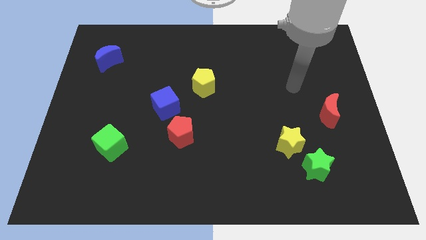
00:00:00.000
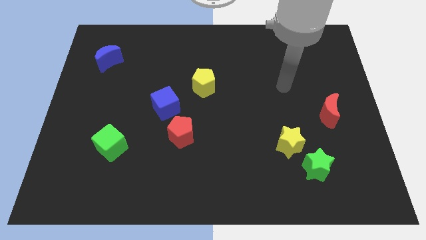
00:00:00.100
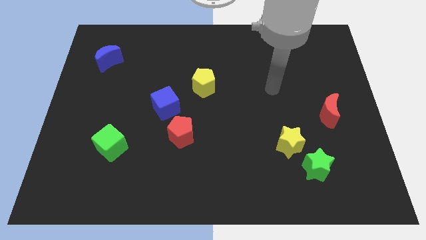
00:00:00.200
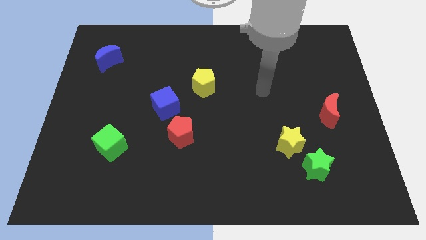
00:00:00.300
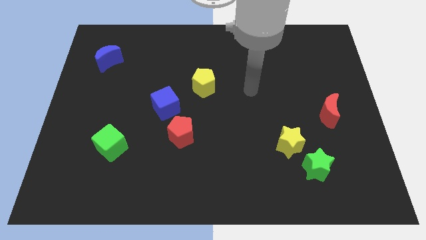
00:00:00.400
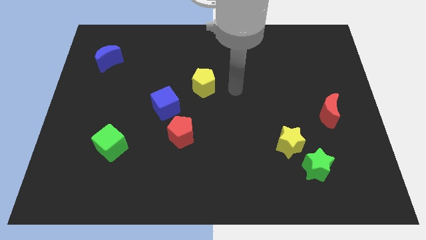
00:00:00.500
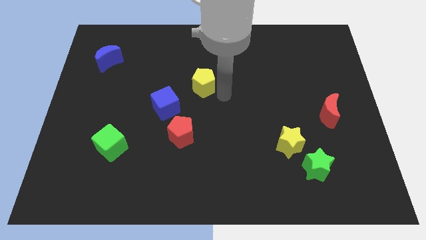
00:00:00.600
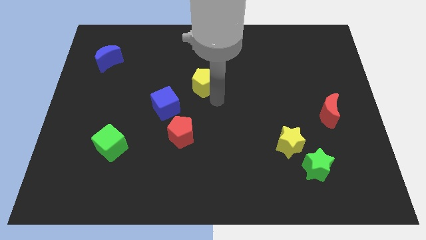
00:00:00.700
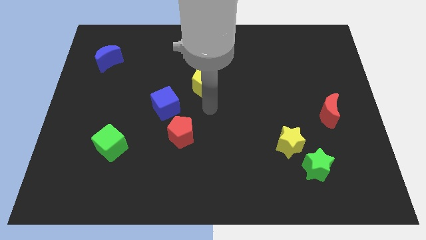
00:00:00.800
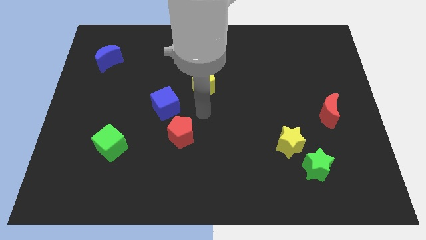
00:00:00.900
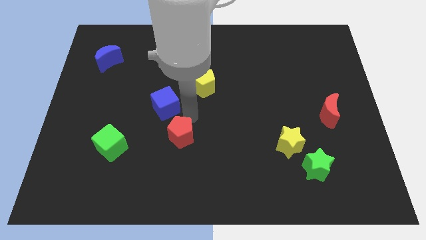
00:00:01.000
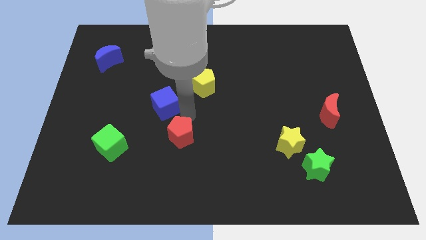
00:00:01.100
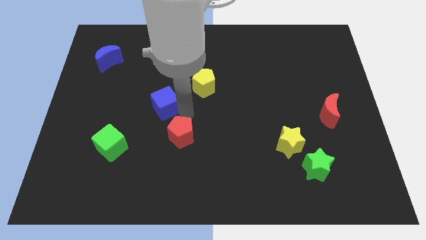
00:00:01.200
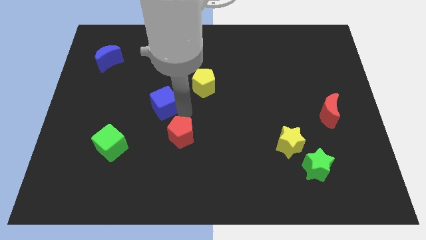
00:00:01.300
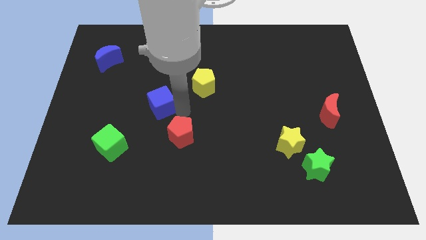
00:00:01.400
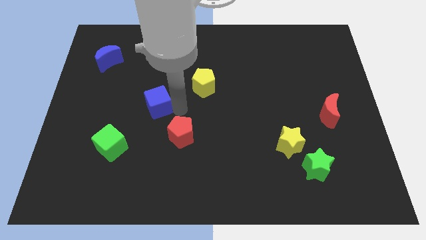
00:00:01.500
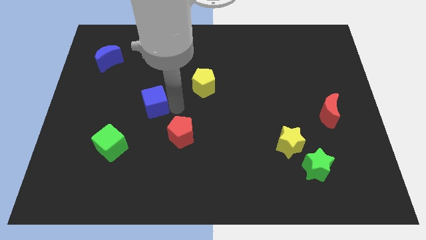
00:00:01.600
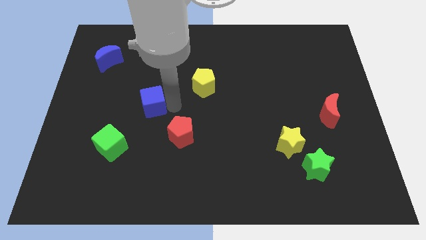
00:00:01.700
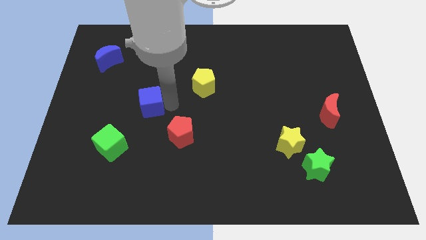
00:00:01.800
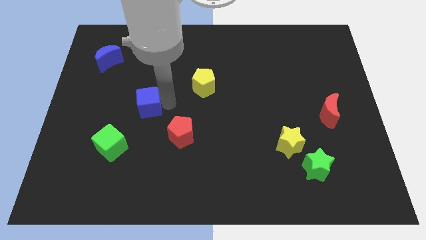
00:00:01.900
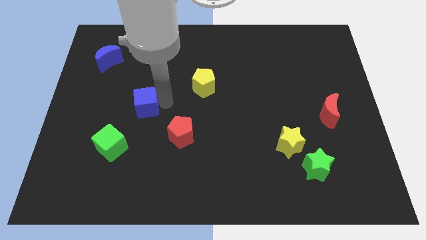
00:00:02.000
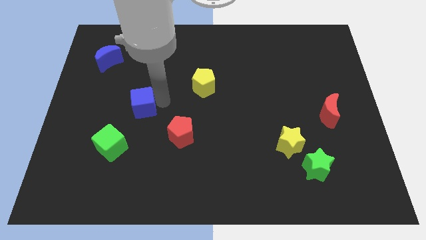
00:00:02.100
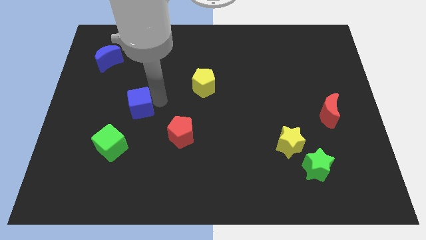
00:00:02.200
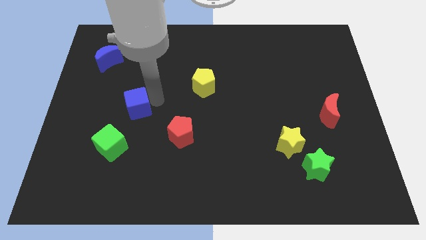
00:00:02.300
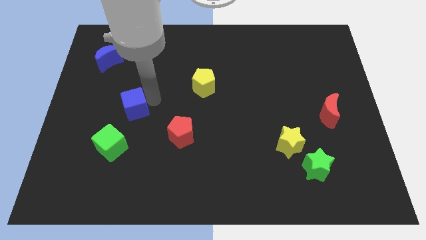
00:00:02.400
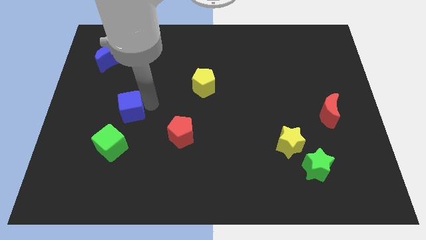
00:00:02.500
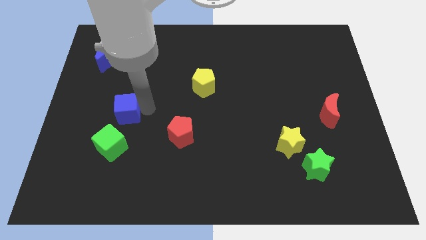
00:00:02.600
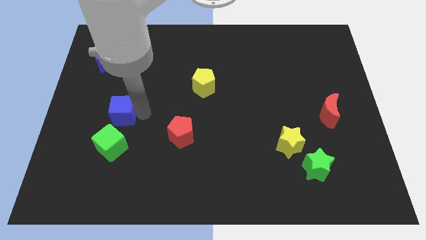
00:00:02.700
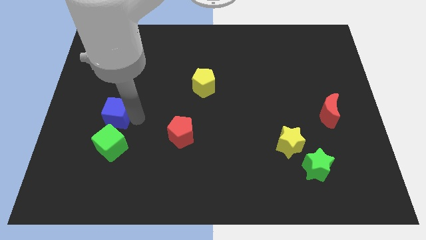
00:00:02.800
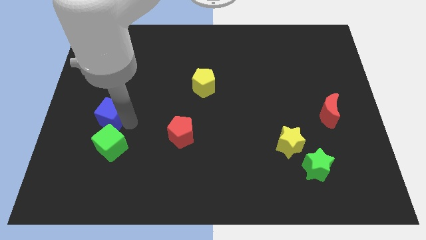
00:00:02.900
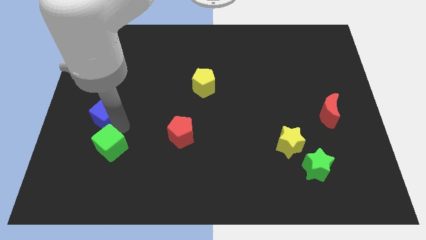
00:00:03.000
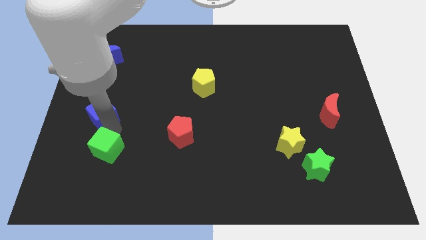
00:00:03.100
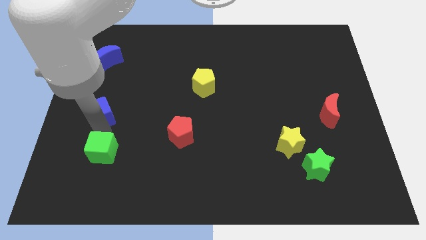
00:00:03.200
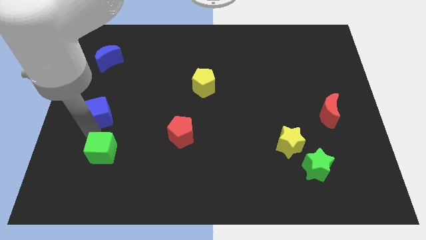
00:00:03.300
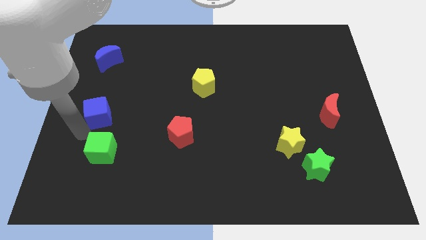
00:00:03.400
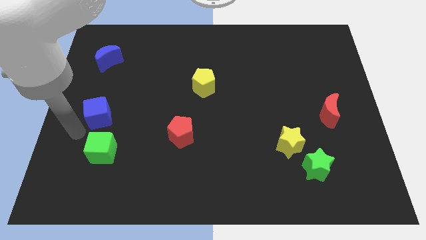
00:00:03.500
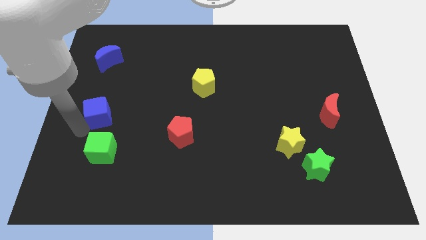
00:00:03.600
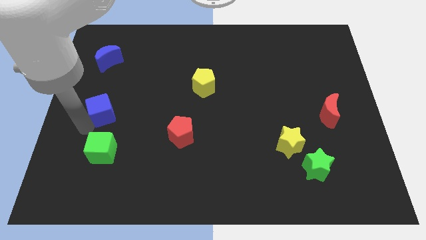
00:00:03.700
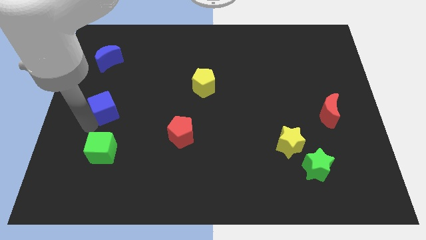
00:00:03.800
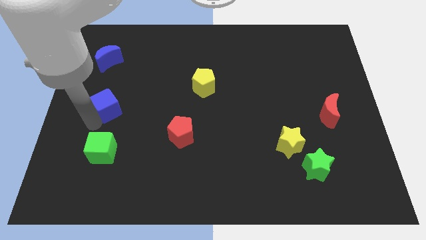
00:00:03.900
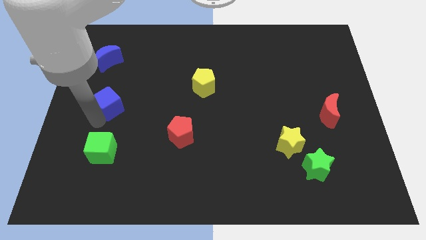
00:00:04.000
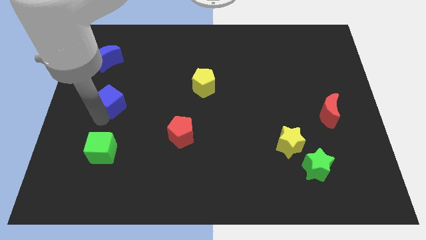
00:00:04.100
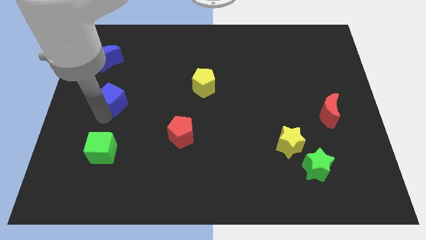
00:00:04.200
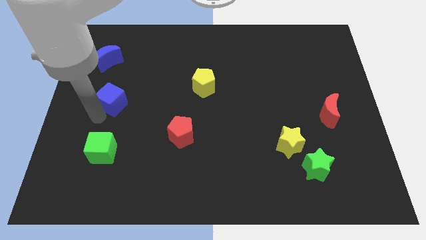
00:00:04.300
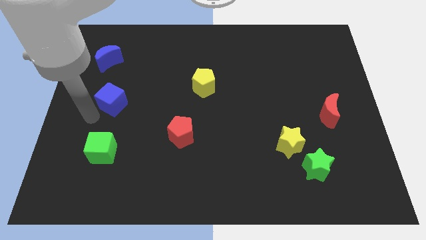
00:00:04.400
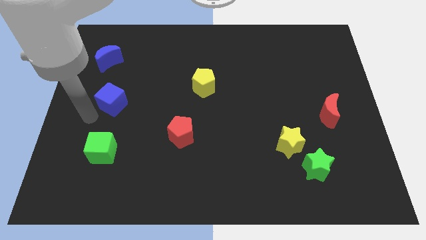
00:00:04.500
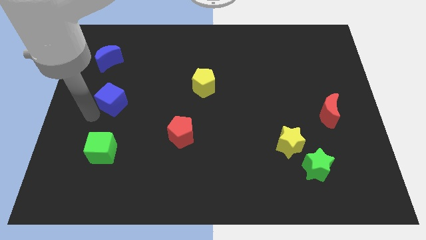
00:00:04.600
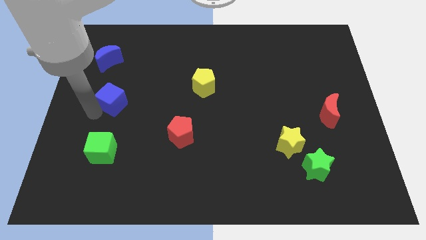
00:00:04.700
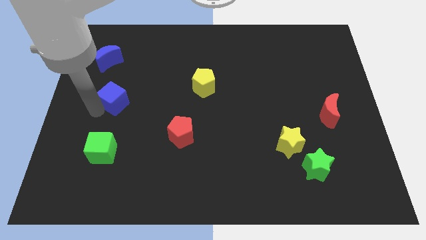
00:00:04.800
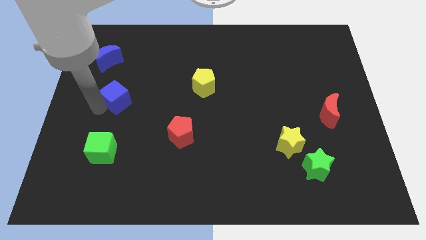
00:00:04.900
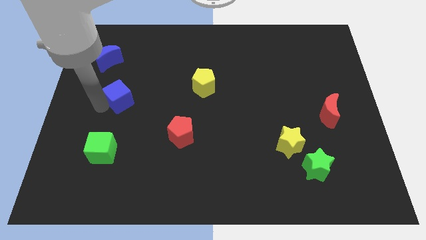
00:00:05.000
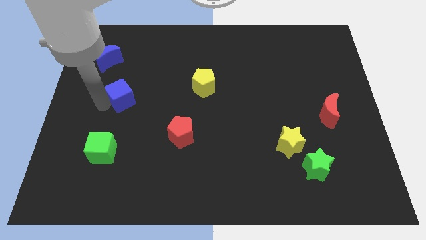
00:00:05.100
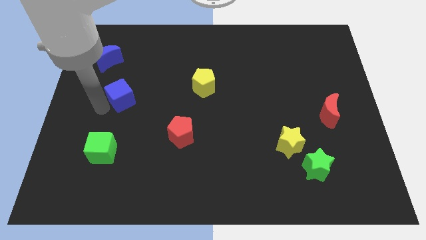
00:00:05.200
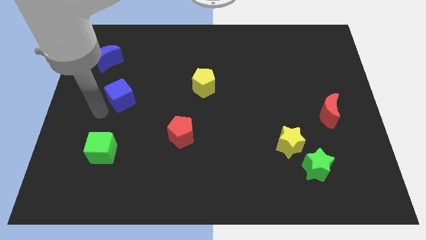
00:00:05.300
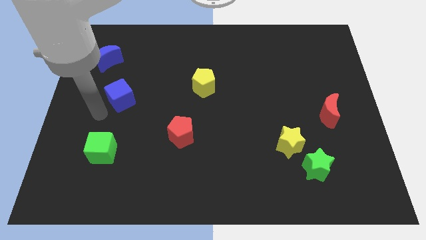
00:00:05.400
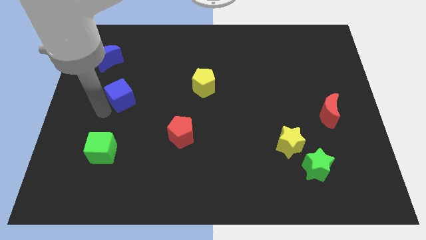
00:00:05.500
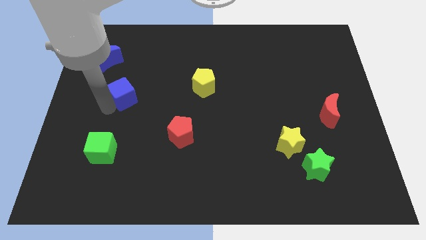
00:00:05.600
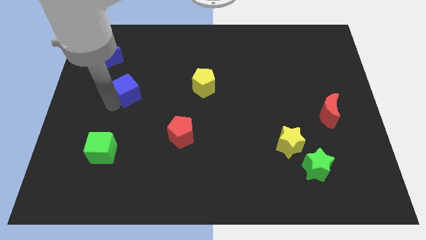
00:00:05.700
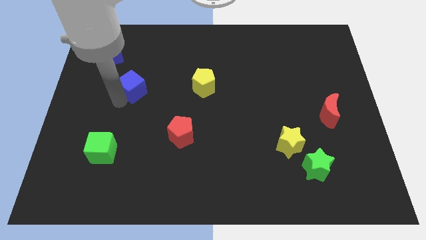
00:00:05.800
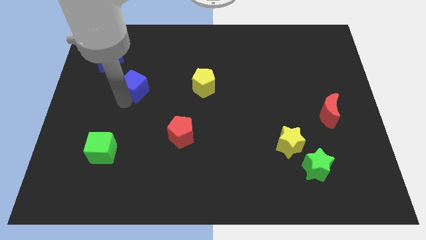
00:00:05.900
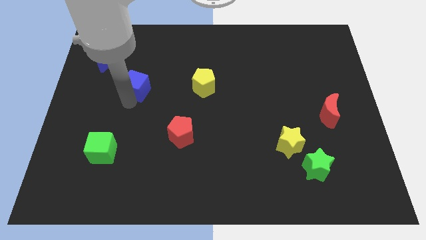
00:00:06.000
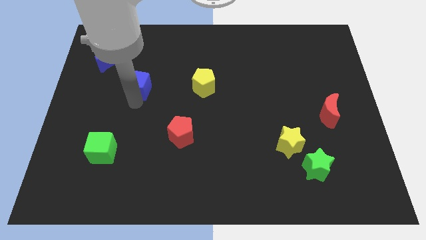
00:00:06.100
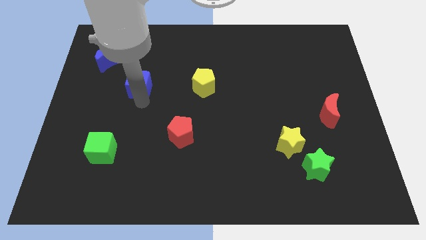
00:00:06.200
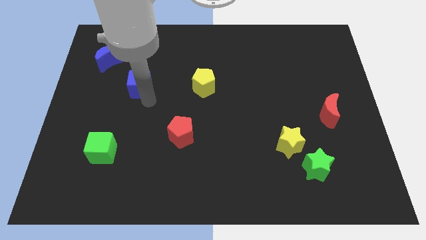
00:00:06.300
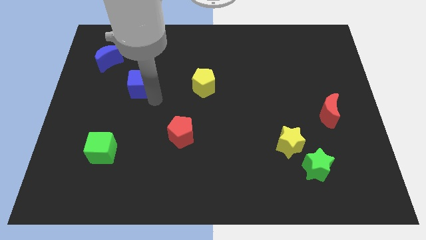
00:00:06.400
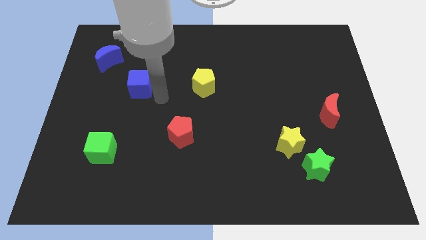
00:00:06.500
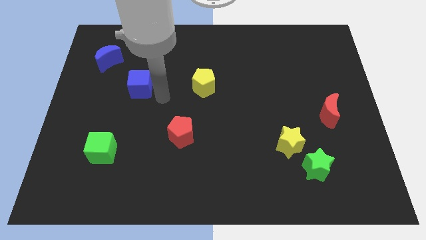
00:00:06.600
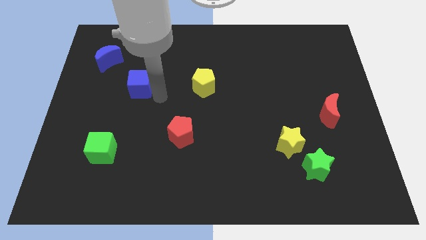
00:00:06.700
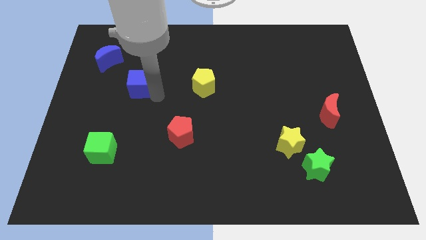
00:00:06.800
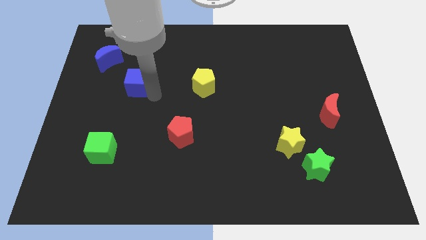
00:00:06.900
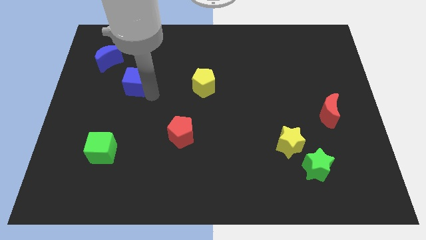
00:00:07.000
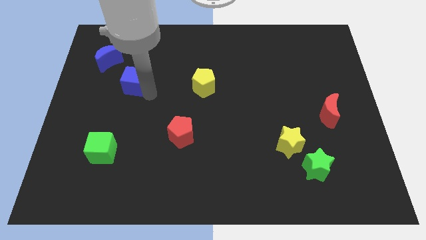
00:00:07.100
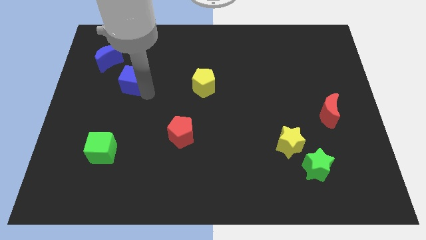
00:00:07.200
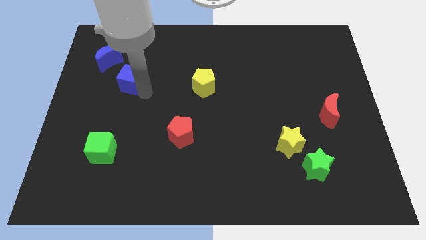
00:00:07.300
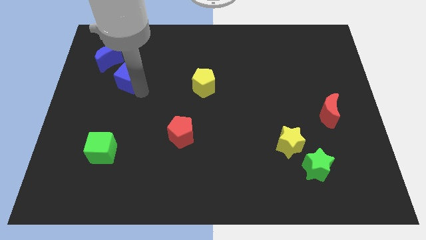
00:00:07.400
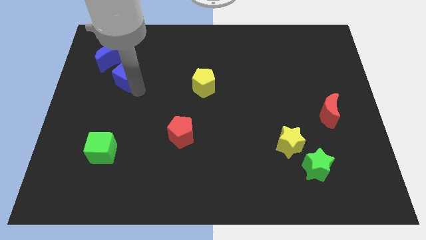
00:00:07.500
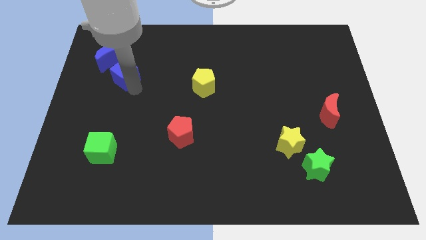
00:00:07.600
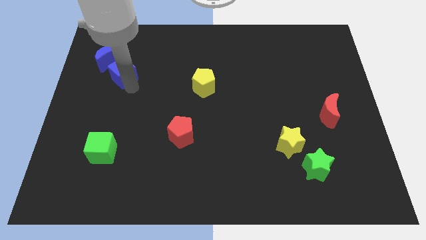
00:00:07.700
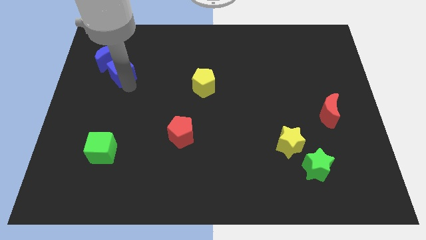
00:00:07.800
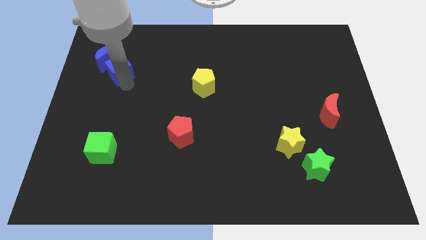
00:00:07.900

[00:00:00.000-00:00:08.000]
slide the blue cube to the blue moon
